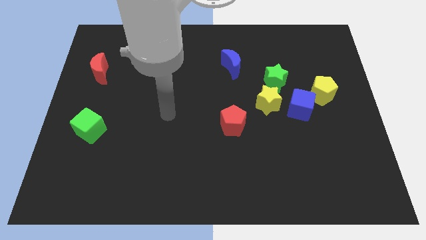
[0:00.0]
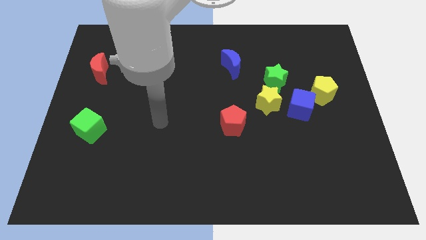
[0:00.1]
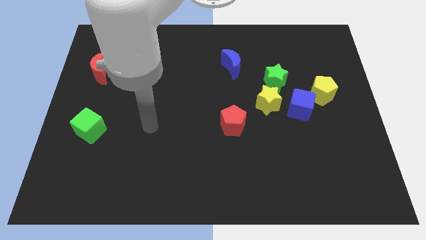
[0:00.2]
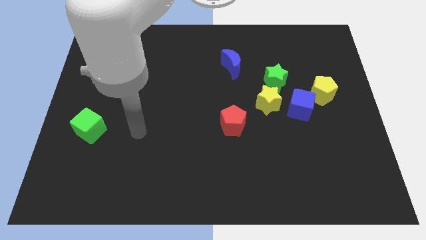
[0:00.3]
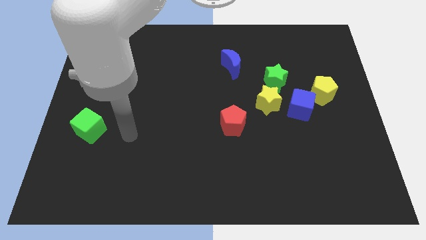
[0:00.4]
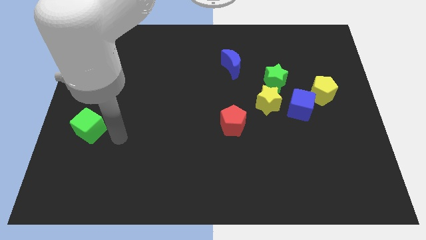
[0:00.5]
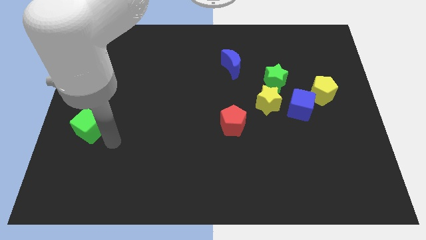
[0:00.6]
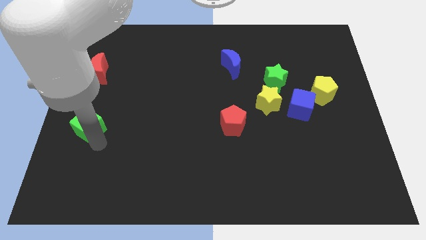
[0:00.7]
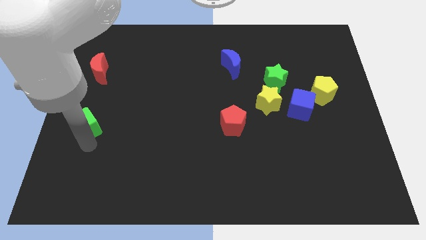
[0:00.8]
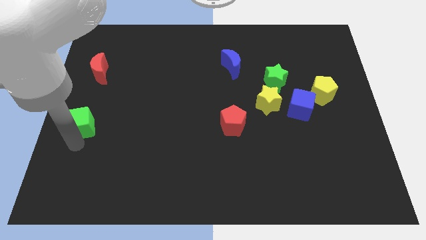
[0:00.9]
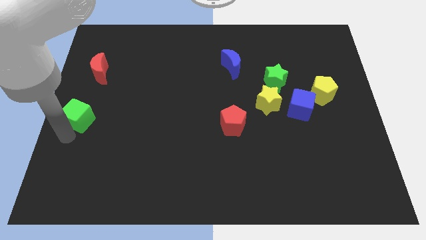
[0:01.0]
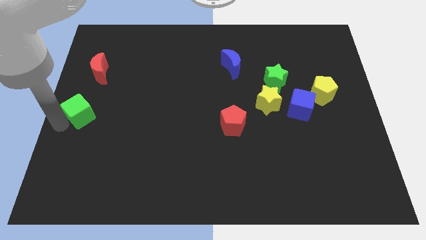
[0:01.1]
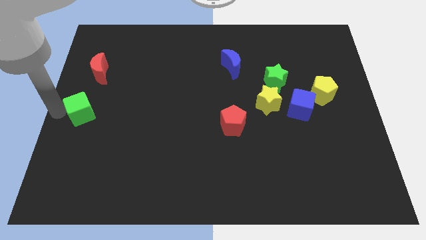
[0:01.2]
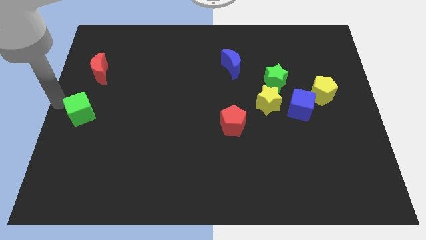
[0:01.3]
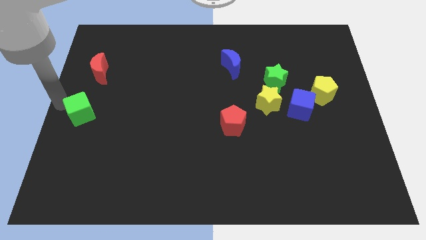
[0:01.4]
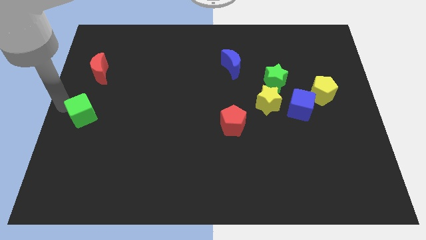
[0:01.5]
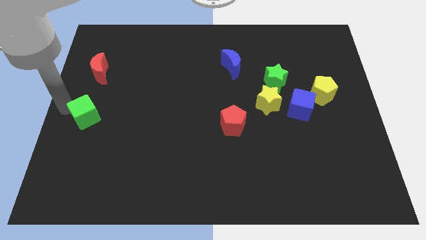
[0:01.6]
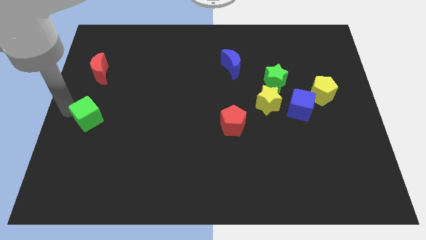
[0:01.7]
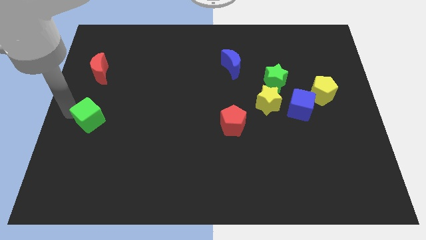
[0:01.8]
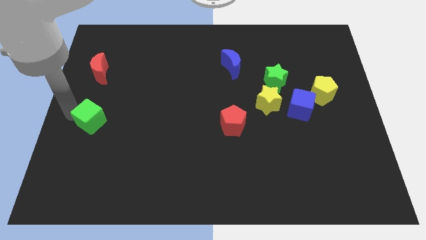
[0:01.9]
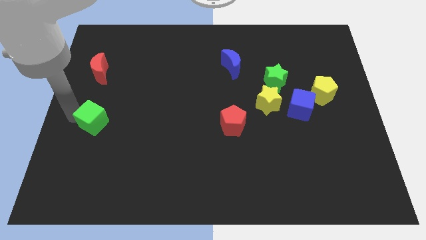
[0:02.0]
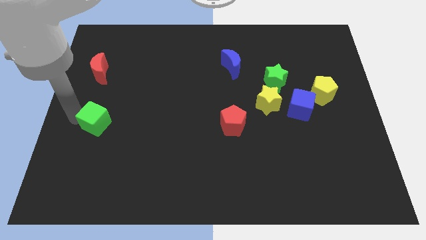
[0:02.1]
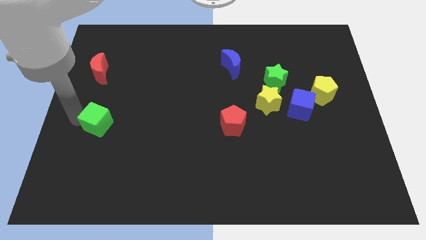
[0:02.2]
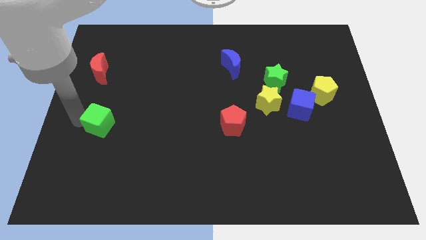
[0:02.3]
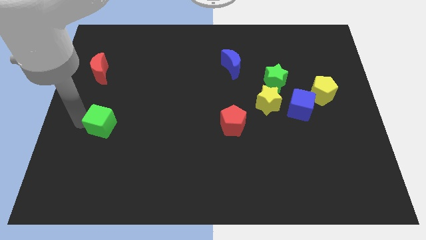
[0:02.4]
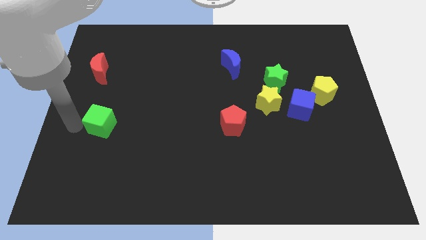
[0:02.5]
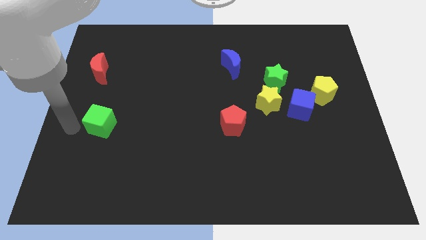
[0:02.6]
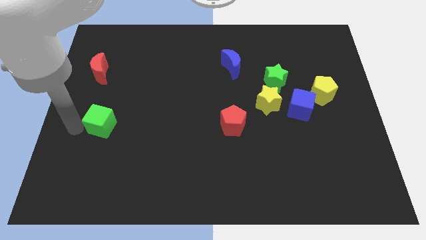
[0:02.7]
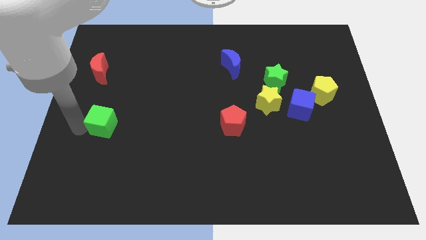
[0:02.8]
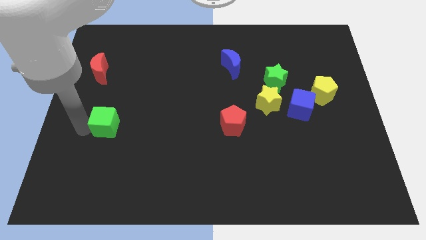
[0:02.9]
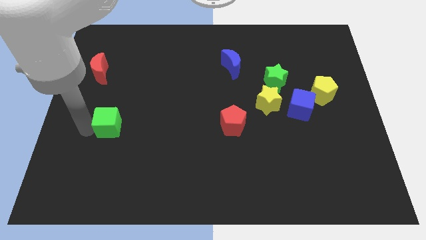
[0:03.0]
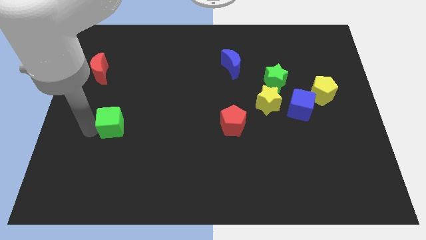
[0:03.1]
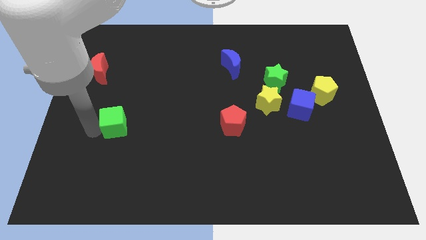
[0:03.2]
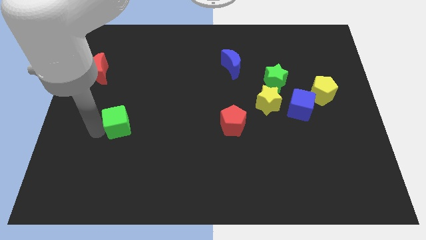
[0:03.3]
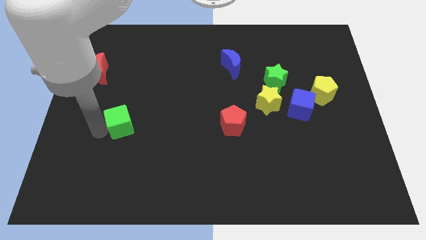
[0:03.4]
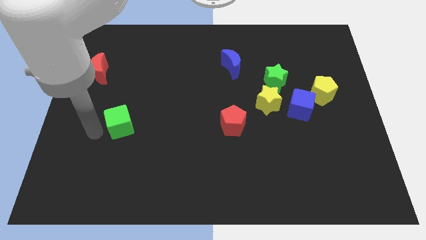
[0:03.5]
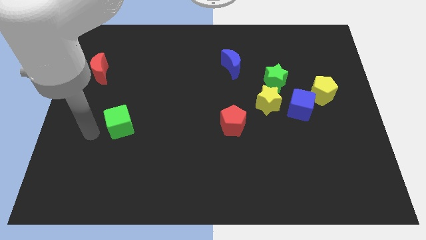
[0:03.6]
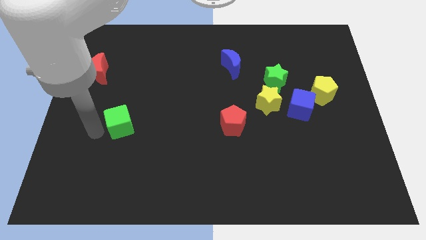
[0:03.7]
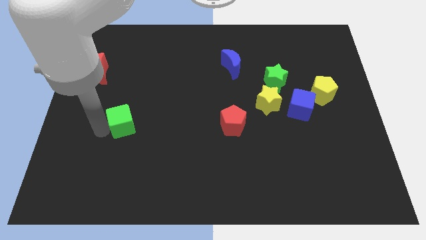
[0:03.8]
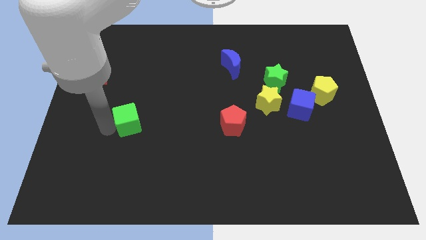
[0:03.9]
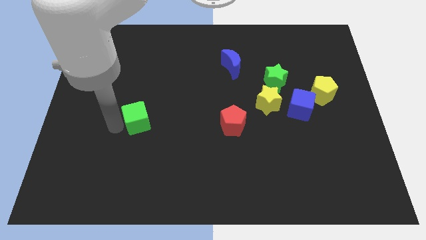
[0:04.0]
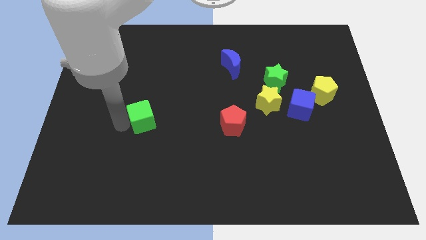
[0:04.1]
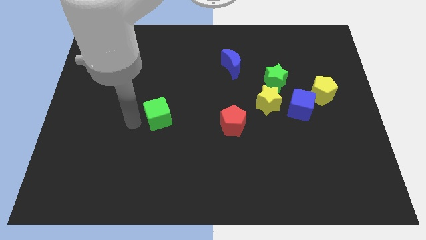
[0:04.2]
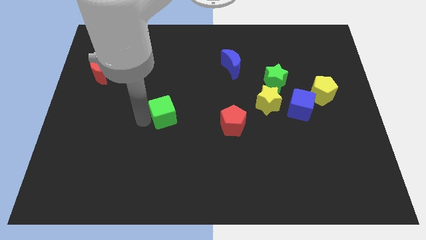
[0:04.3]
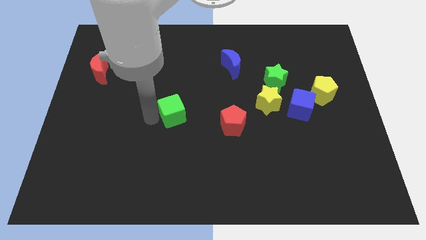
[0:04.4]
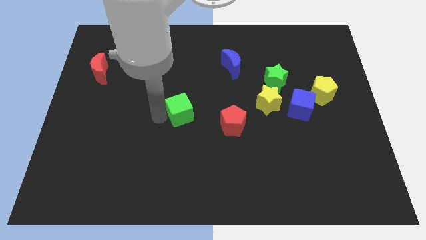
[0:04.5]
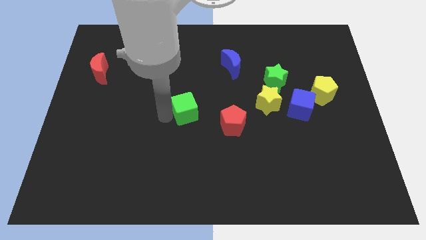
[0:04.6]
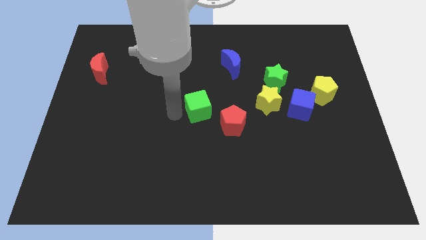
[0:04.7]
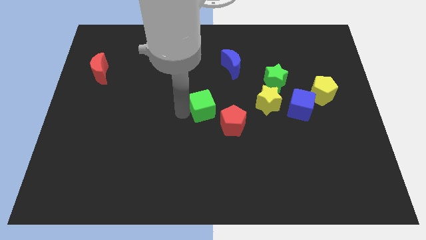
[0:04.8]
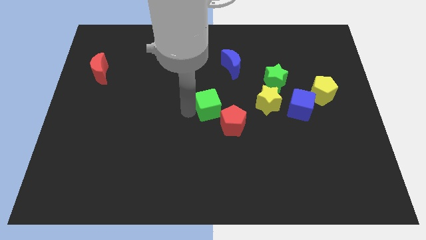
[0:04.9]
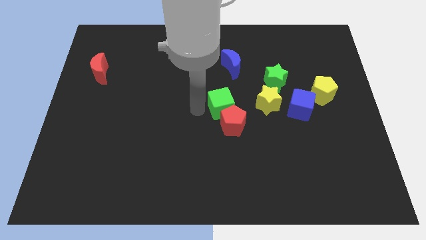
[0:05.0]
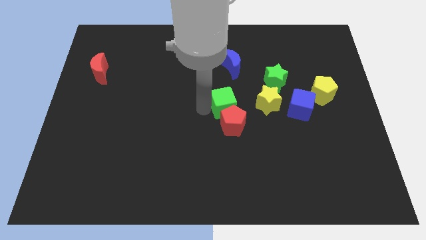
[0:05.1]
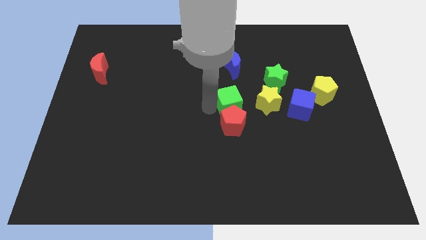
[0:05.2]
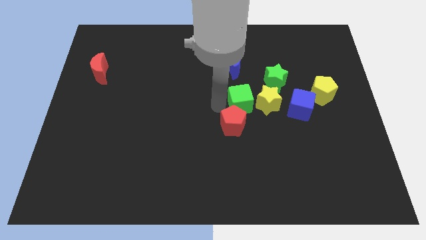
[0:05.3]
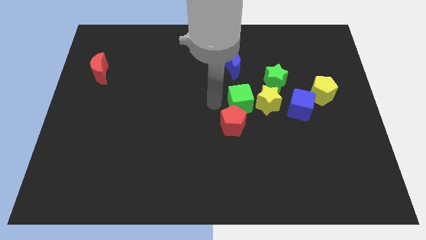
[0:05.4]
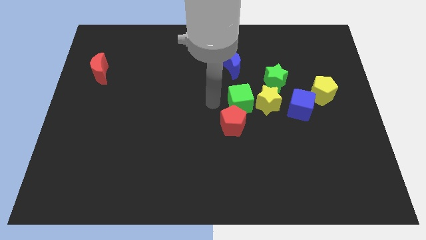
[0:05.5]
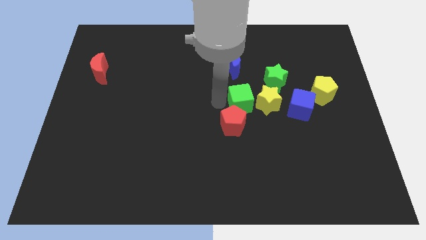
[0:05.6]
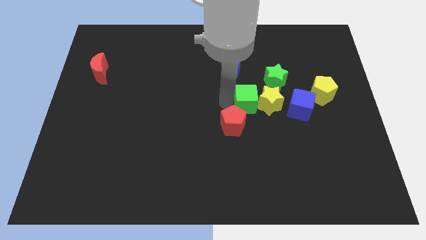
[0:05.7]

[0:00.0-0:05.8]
push the green cube close to the yellow star

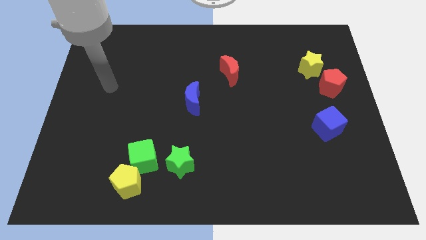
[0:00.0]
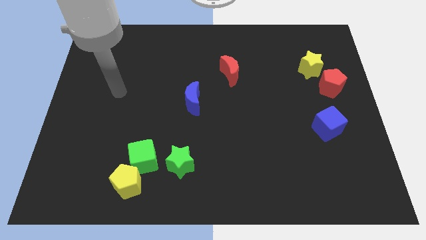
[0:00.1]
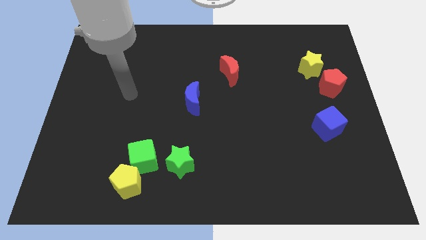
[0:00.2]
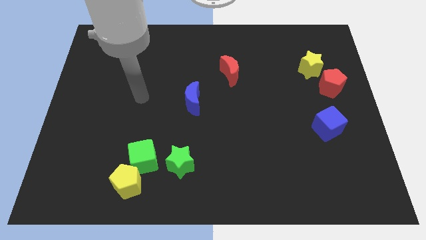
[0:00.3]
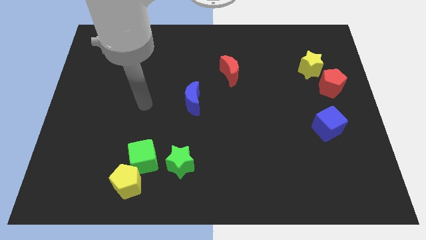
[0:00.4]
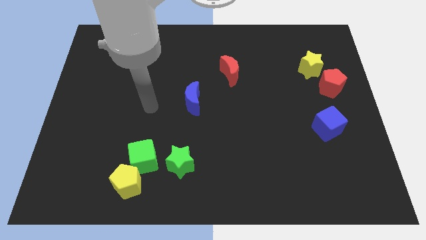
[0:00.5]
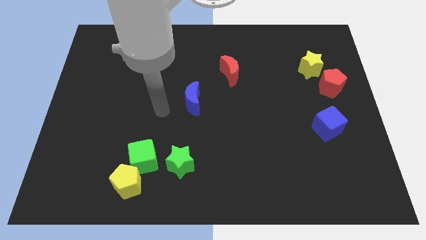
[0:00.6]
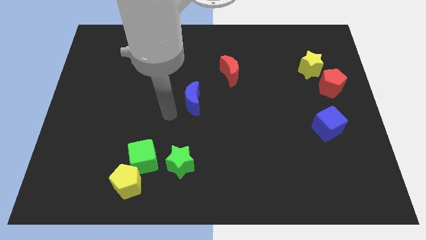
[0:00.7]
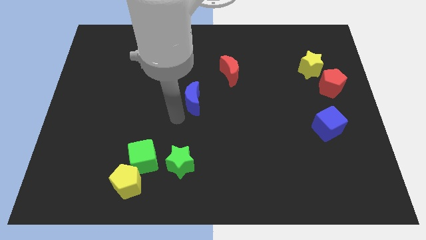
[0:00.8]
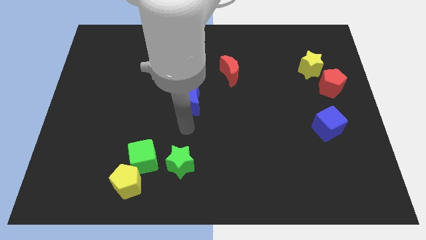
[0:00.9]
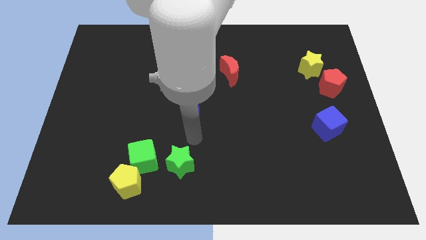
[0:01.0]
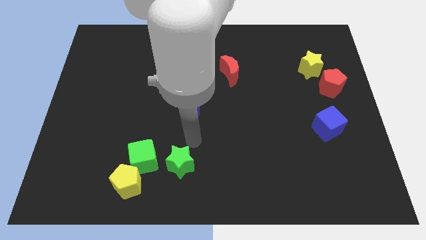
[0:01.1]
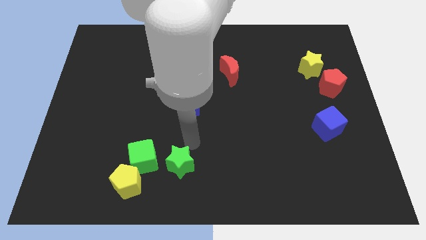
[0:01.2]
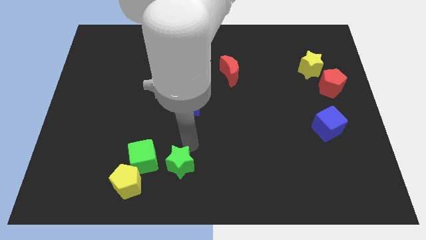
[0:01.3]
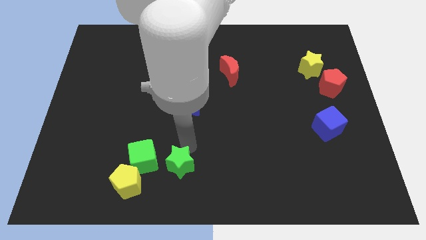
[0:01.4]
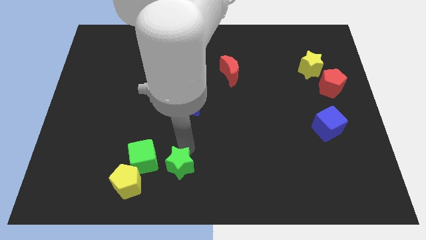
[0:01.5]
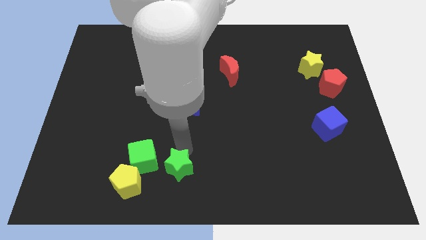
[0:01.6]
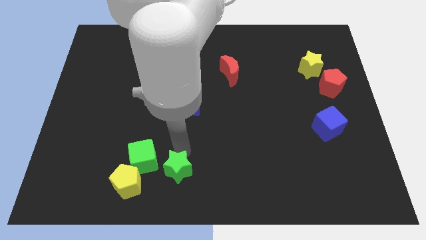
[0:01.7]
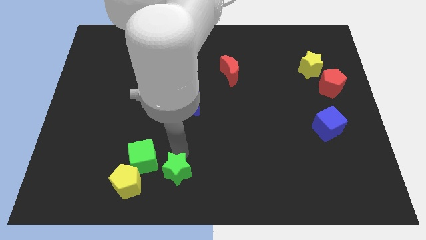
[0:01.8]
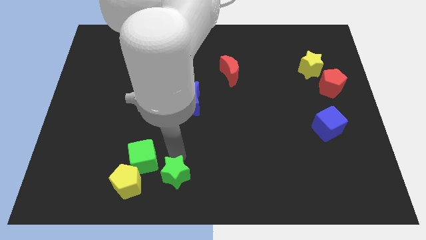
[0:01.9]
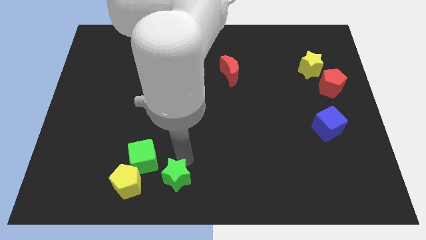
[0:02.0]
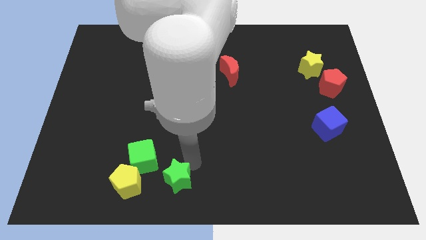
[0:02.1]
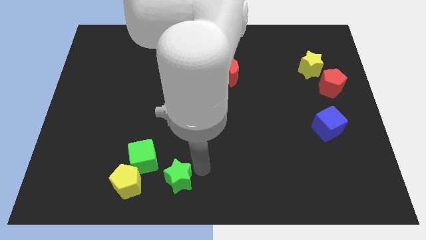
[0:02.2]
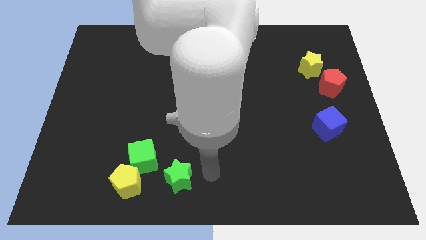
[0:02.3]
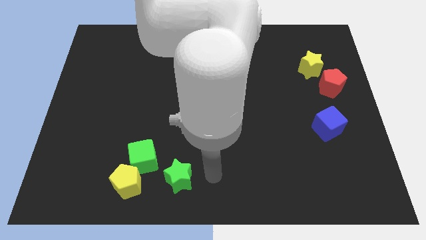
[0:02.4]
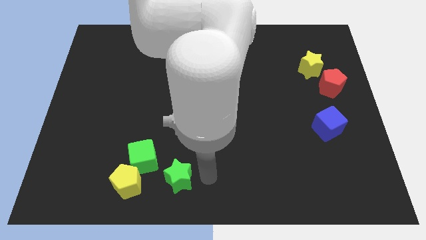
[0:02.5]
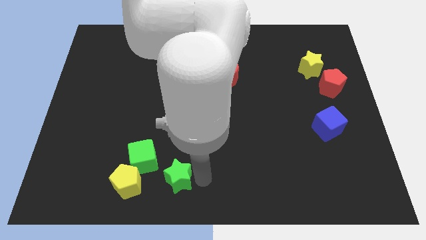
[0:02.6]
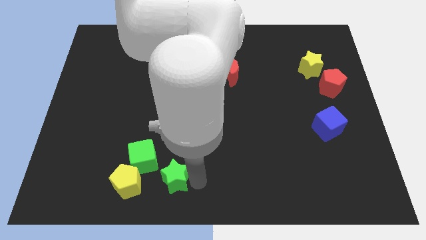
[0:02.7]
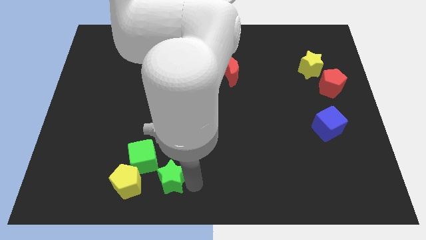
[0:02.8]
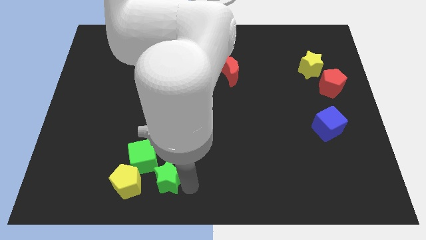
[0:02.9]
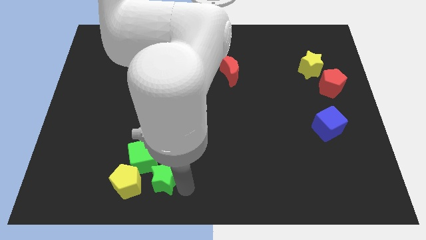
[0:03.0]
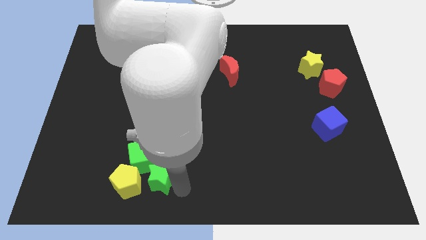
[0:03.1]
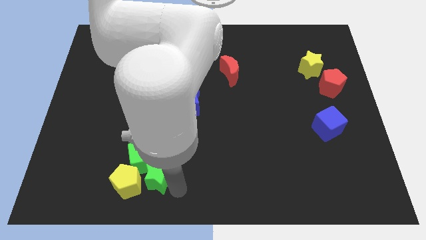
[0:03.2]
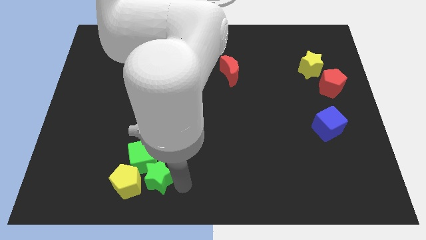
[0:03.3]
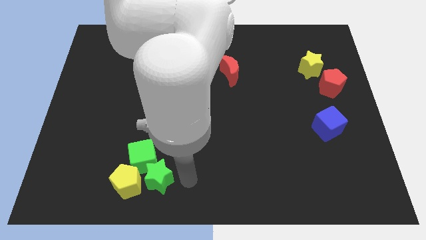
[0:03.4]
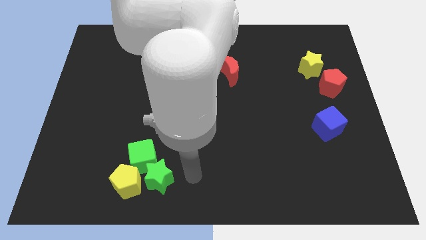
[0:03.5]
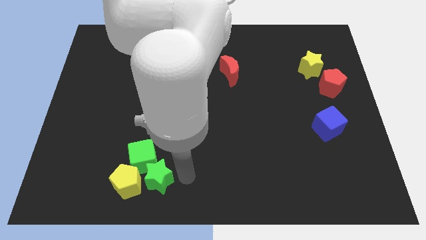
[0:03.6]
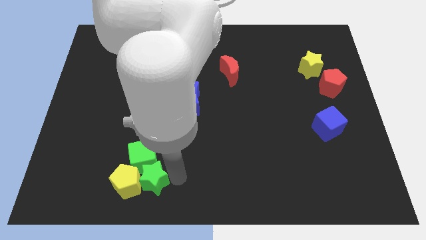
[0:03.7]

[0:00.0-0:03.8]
move the green star towards the yellow pentagon
